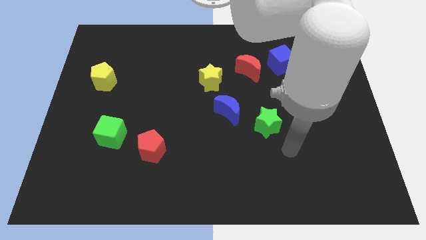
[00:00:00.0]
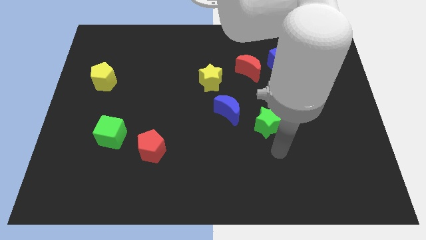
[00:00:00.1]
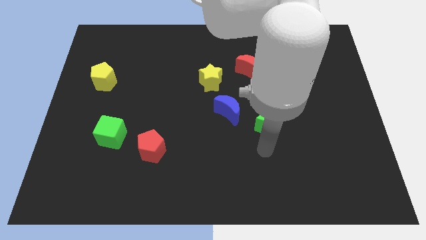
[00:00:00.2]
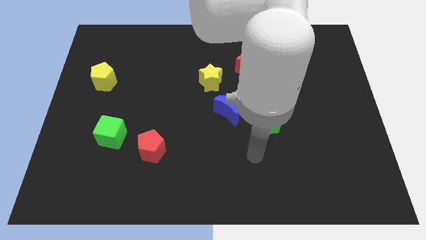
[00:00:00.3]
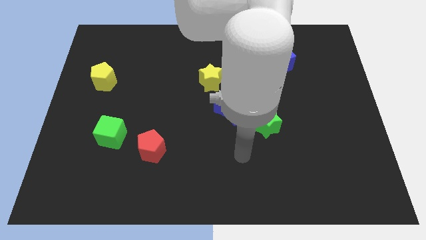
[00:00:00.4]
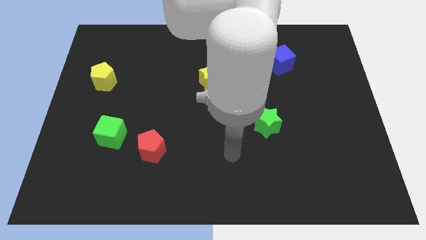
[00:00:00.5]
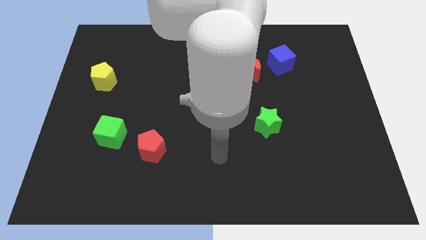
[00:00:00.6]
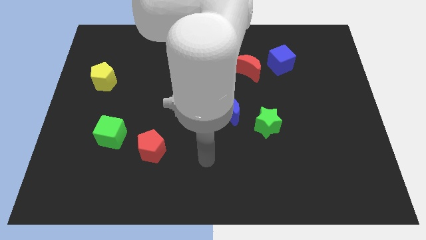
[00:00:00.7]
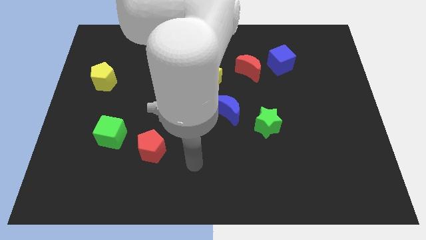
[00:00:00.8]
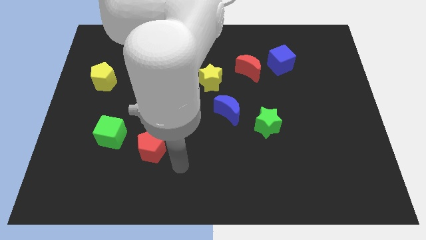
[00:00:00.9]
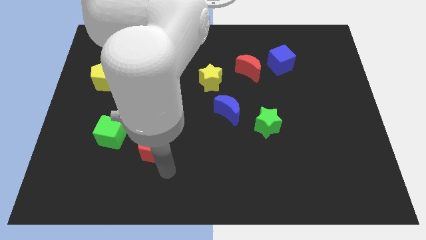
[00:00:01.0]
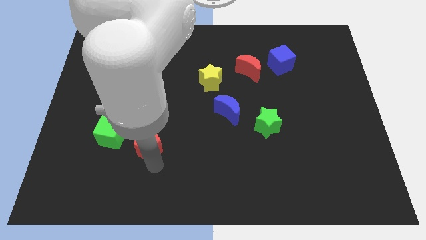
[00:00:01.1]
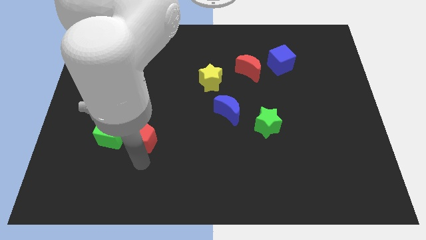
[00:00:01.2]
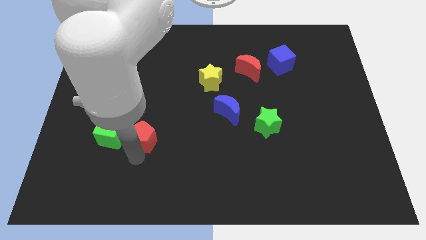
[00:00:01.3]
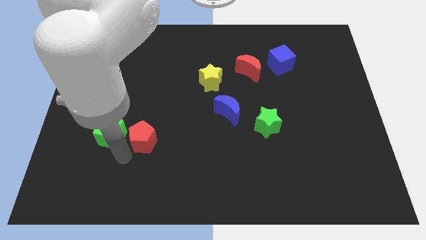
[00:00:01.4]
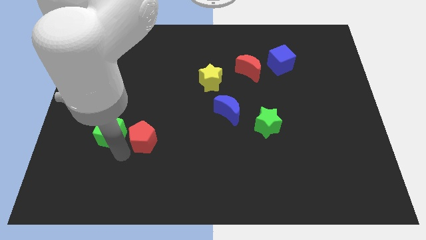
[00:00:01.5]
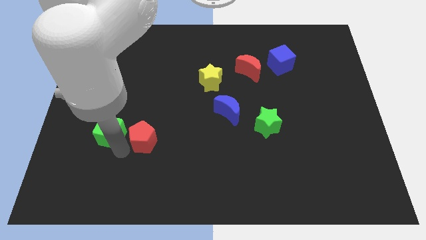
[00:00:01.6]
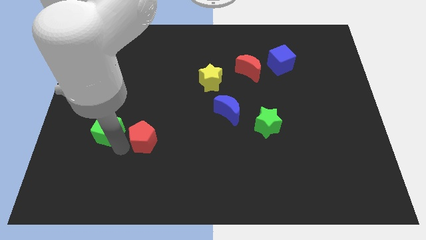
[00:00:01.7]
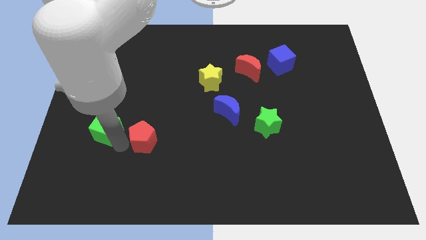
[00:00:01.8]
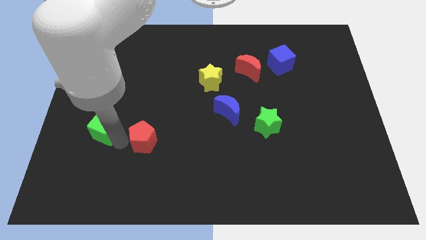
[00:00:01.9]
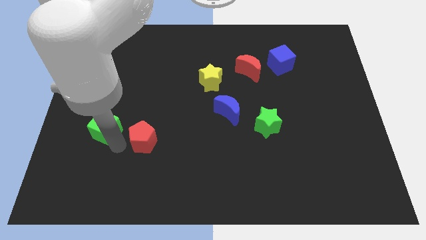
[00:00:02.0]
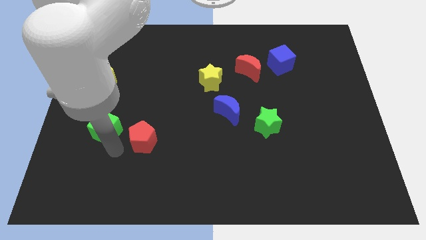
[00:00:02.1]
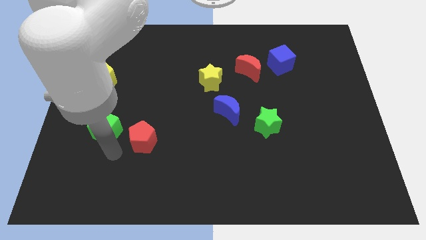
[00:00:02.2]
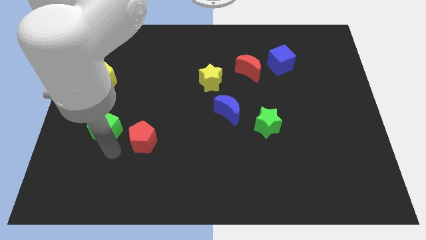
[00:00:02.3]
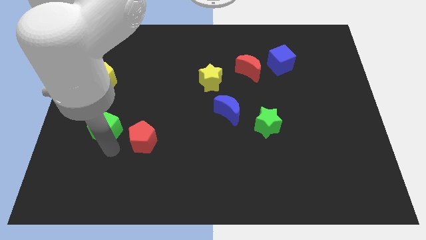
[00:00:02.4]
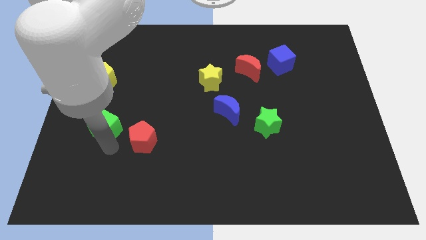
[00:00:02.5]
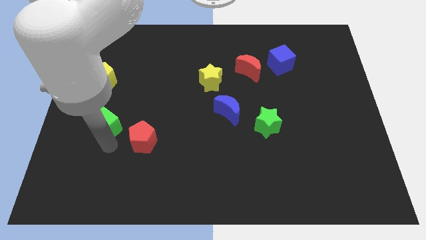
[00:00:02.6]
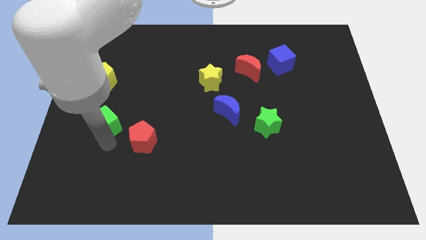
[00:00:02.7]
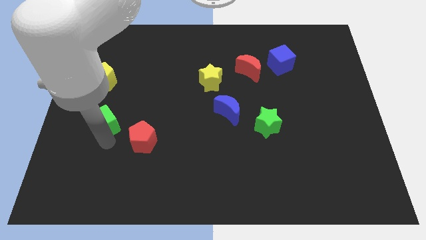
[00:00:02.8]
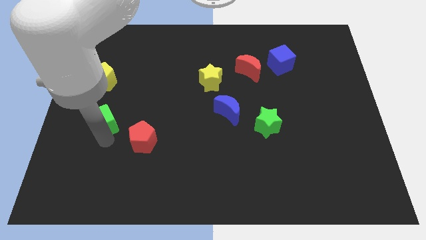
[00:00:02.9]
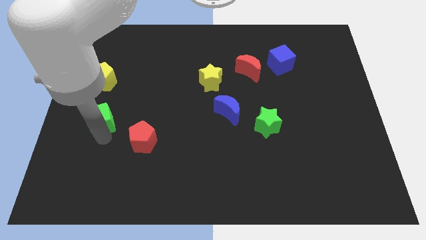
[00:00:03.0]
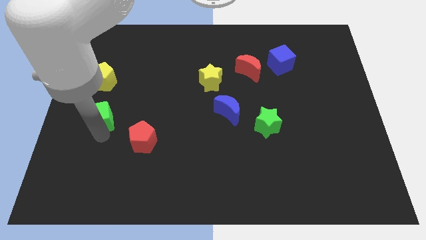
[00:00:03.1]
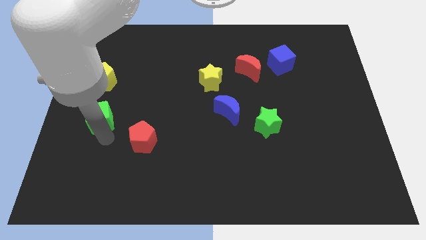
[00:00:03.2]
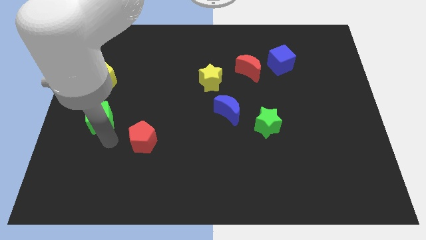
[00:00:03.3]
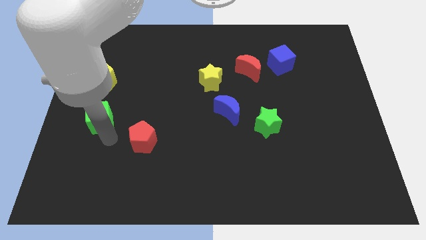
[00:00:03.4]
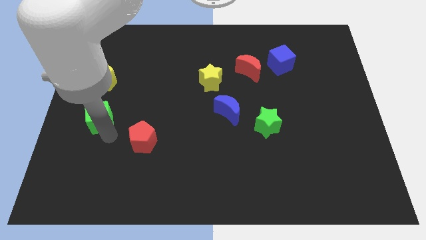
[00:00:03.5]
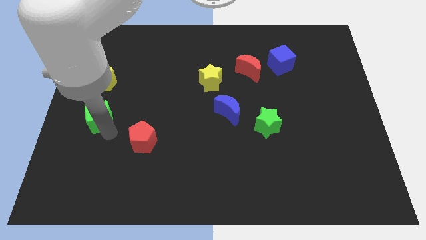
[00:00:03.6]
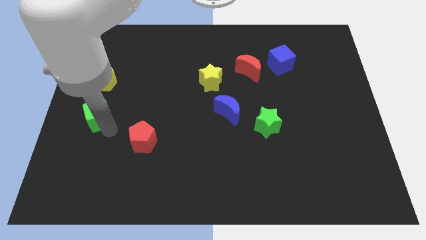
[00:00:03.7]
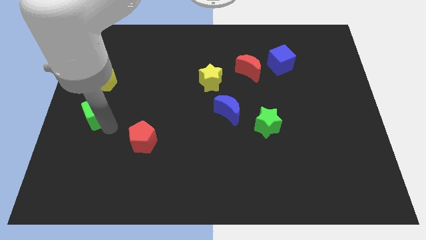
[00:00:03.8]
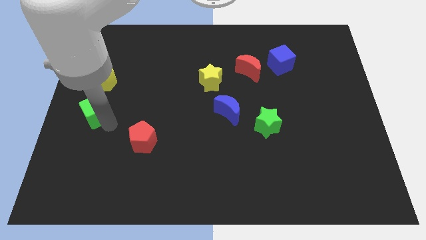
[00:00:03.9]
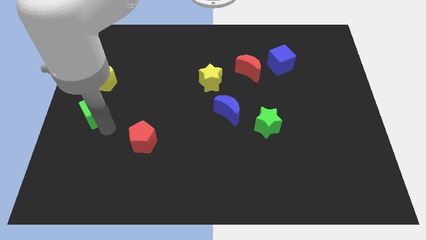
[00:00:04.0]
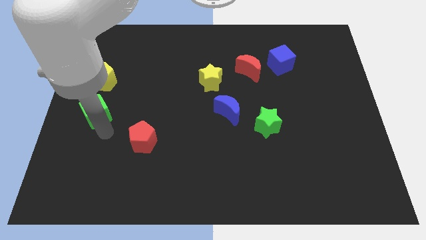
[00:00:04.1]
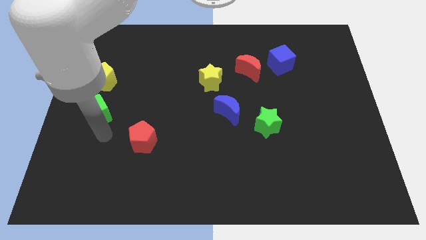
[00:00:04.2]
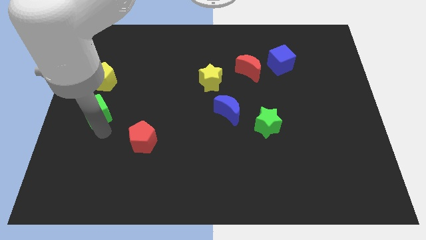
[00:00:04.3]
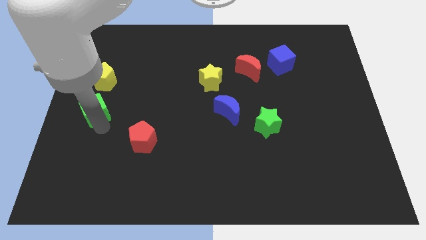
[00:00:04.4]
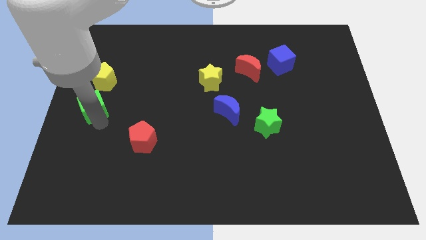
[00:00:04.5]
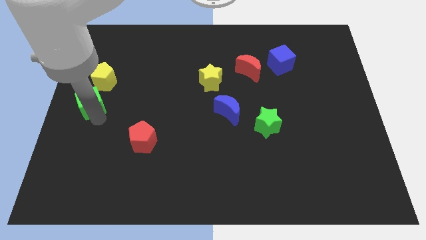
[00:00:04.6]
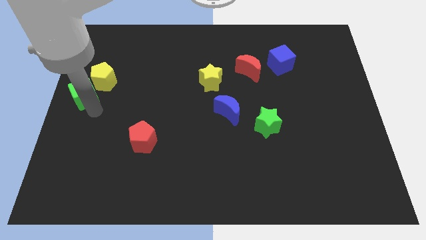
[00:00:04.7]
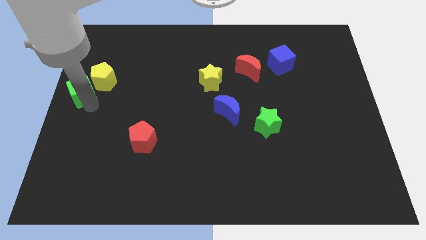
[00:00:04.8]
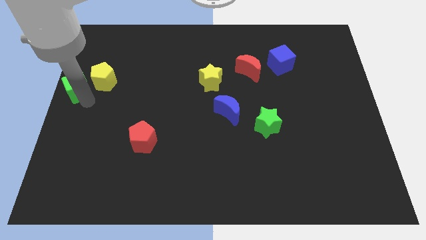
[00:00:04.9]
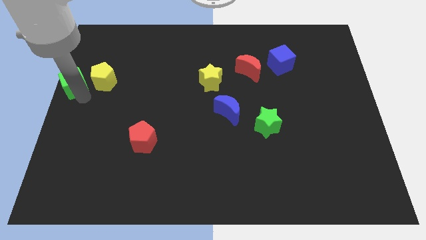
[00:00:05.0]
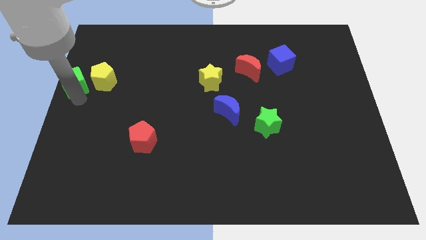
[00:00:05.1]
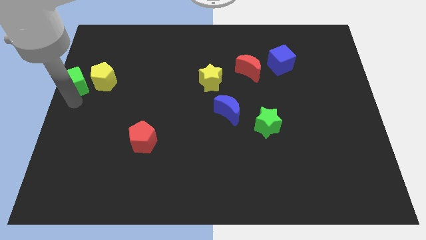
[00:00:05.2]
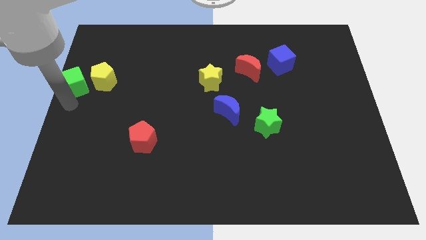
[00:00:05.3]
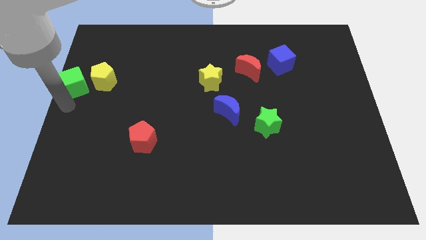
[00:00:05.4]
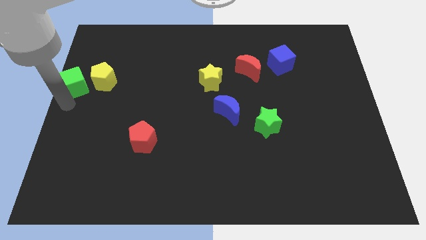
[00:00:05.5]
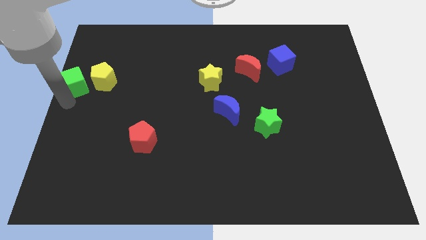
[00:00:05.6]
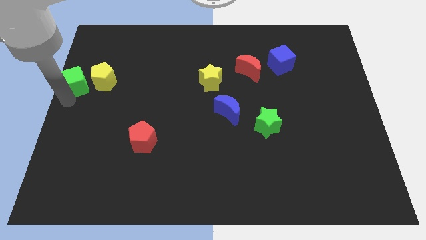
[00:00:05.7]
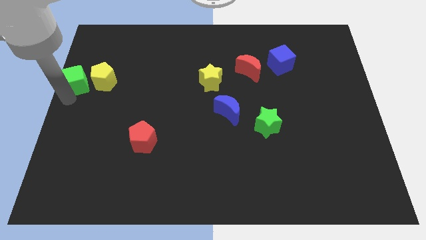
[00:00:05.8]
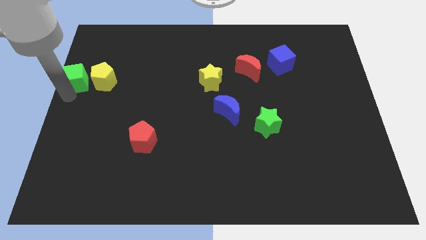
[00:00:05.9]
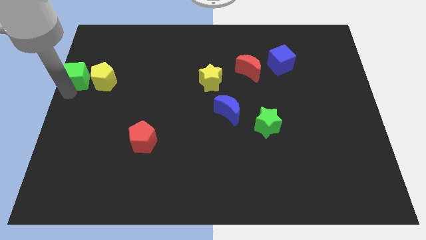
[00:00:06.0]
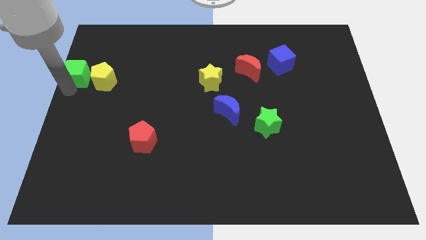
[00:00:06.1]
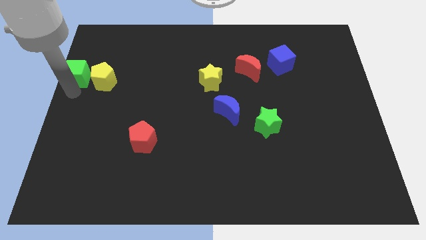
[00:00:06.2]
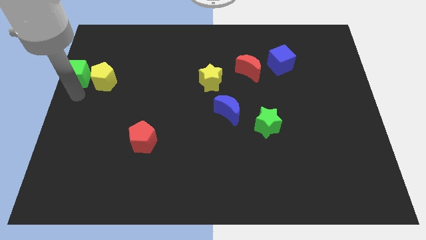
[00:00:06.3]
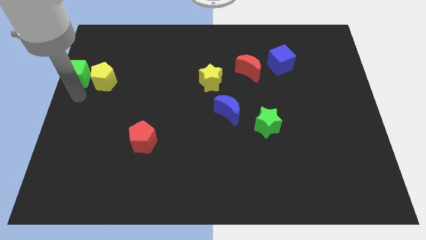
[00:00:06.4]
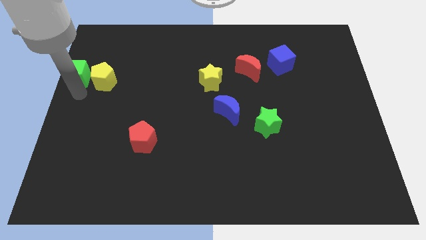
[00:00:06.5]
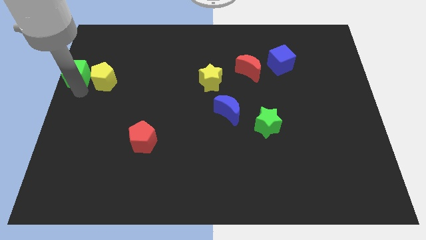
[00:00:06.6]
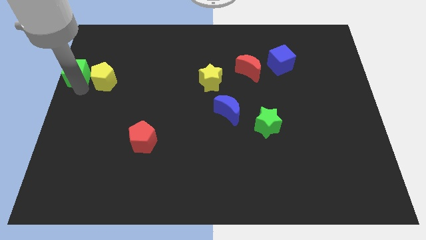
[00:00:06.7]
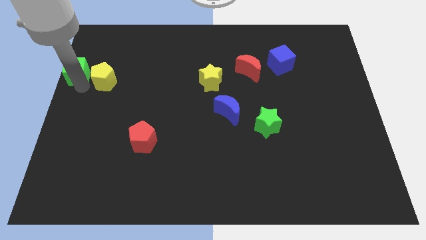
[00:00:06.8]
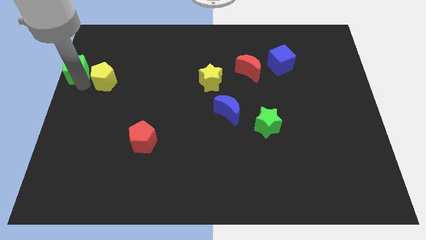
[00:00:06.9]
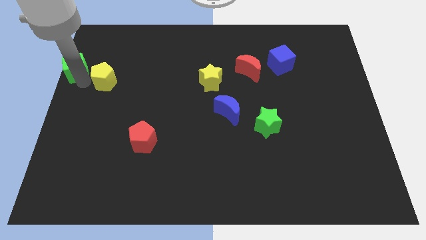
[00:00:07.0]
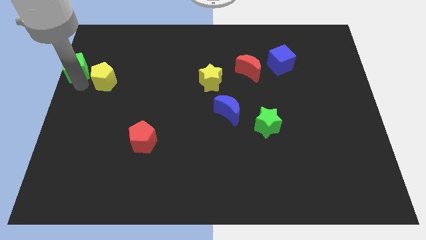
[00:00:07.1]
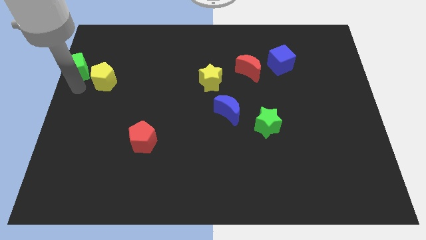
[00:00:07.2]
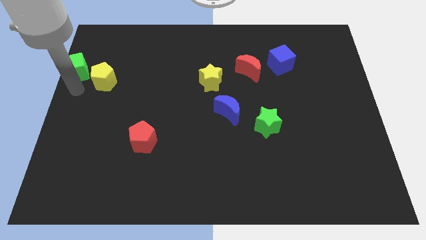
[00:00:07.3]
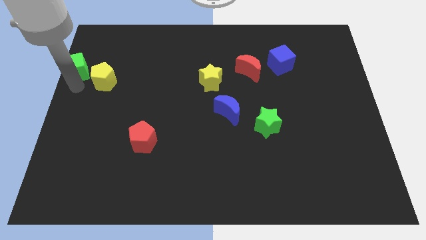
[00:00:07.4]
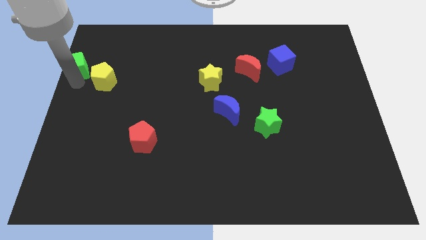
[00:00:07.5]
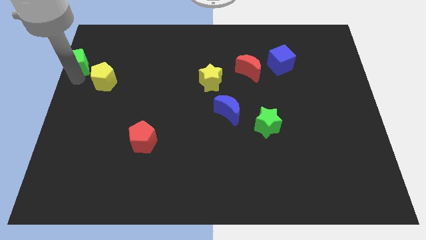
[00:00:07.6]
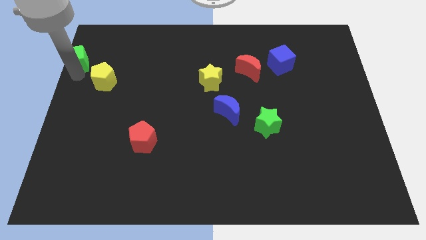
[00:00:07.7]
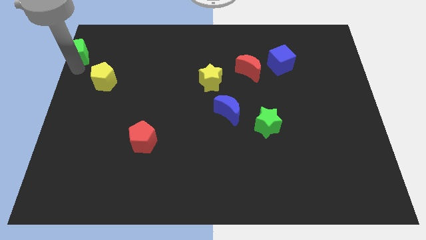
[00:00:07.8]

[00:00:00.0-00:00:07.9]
put the green cube to the top left corner
